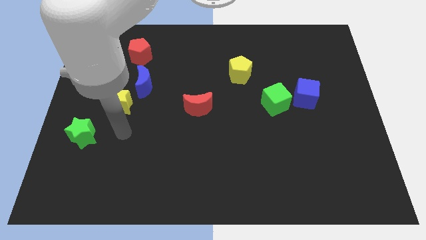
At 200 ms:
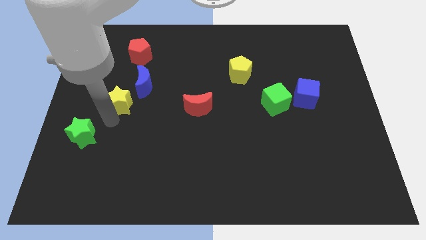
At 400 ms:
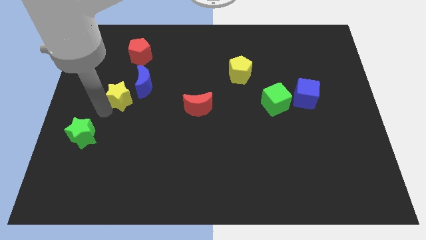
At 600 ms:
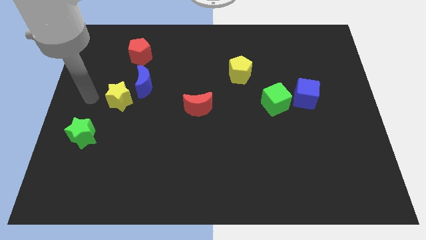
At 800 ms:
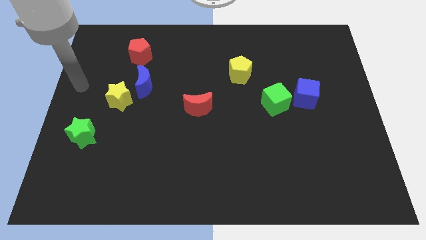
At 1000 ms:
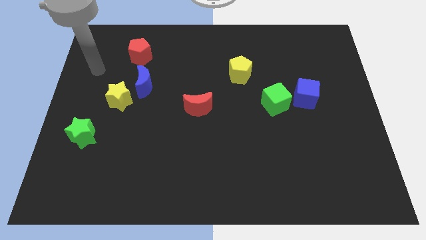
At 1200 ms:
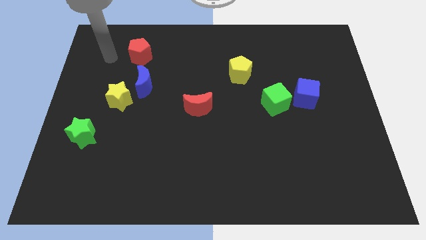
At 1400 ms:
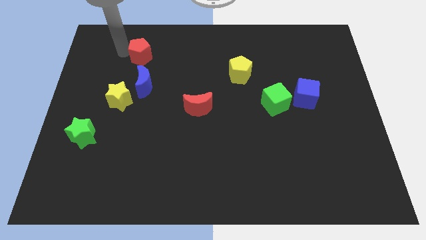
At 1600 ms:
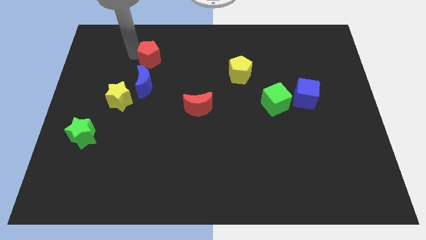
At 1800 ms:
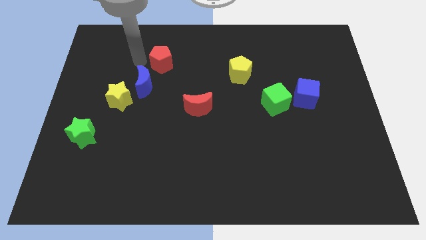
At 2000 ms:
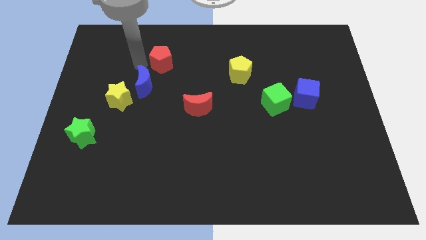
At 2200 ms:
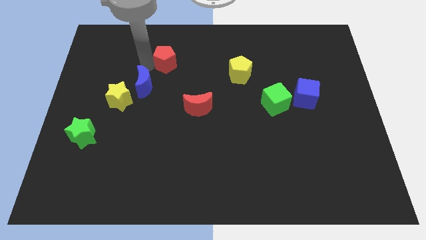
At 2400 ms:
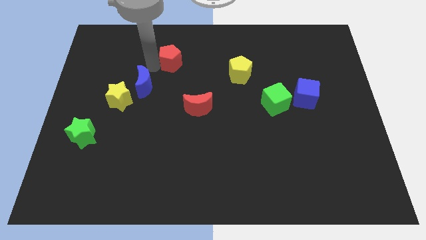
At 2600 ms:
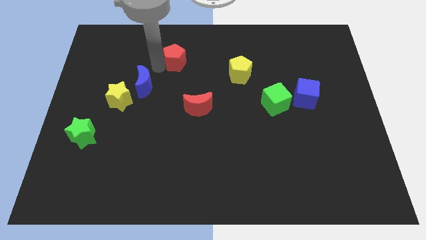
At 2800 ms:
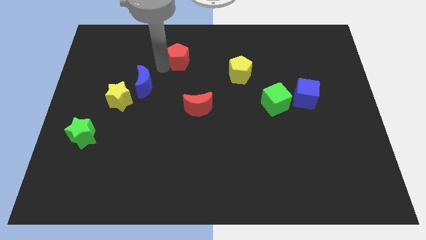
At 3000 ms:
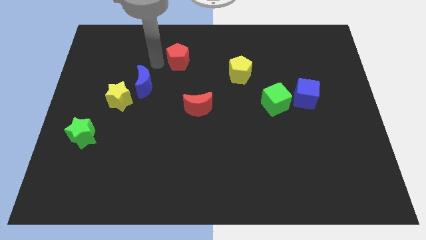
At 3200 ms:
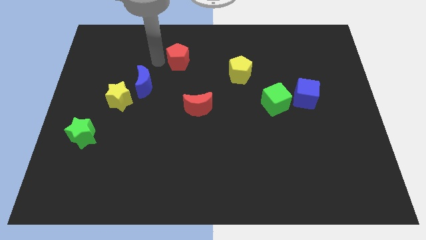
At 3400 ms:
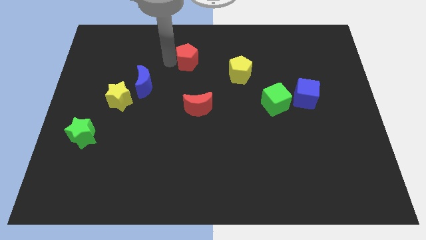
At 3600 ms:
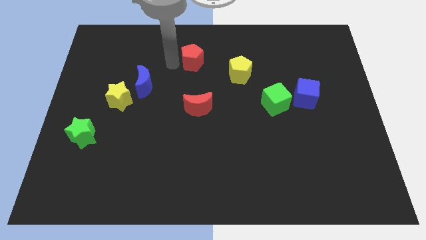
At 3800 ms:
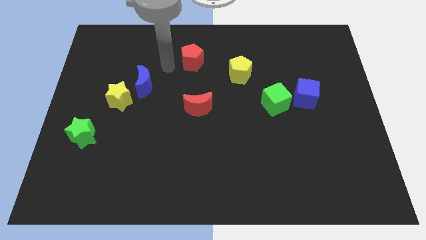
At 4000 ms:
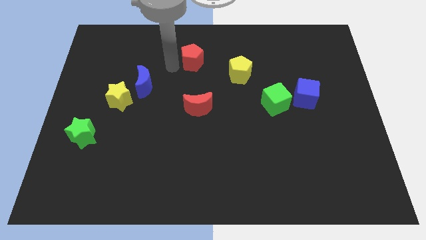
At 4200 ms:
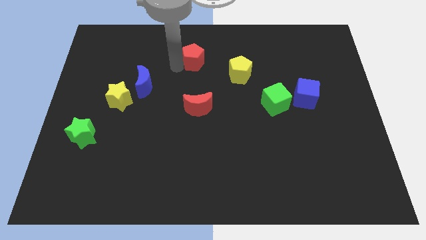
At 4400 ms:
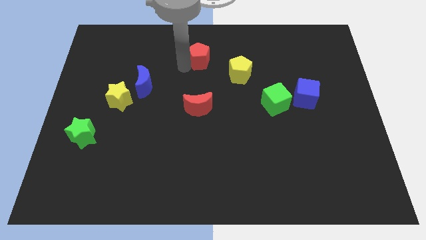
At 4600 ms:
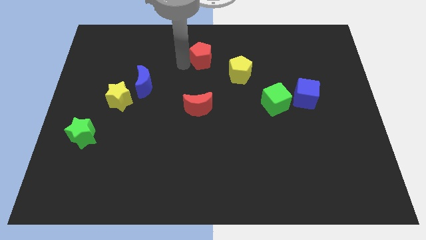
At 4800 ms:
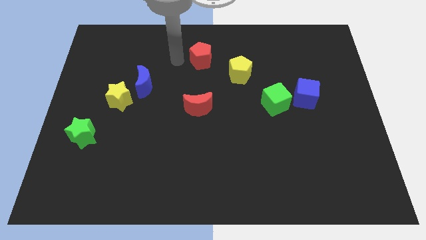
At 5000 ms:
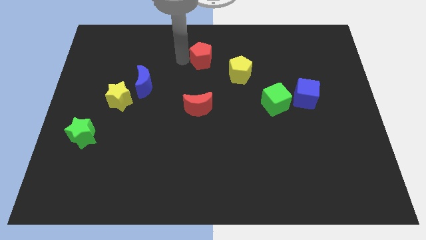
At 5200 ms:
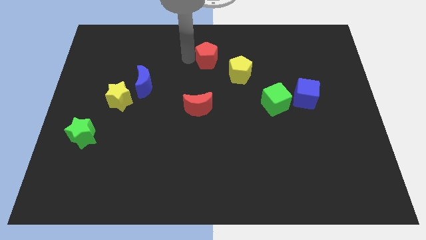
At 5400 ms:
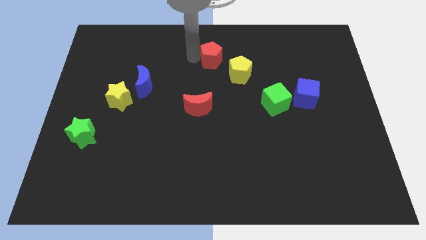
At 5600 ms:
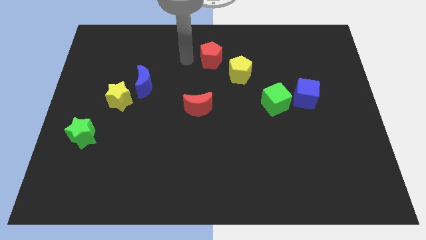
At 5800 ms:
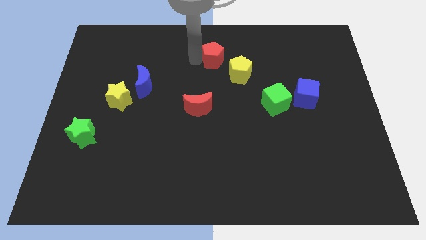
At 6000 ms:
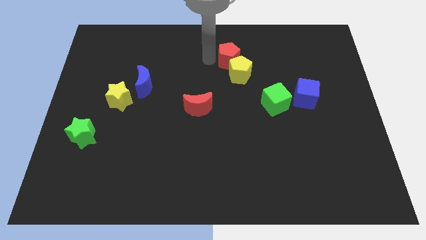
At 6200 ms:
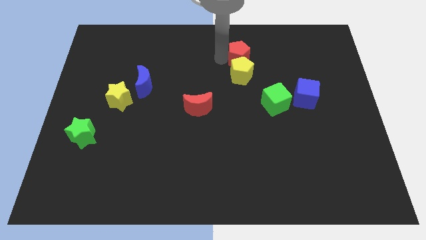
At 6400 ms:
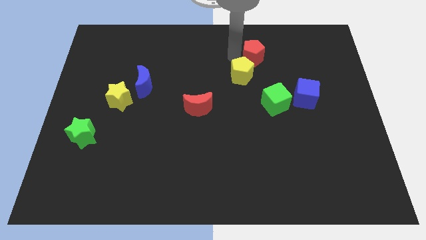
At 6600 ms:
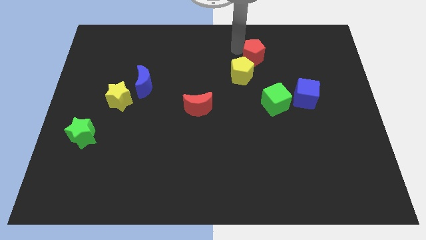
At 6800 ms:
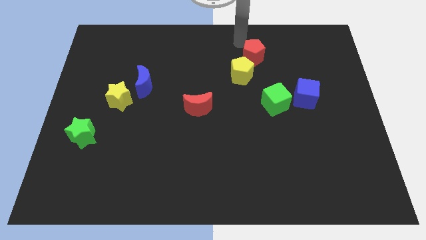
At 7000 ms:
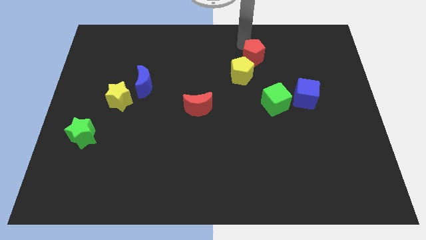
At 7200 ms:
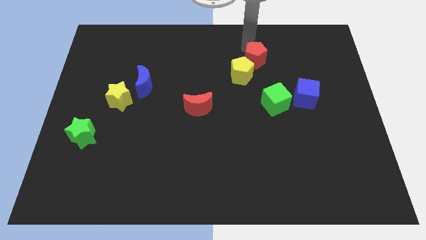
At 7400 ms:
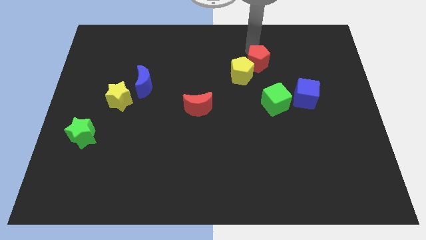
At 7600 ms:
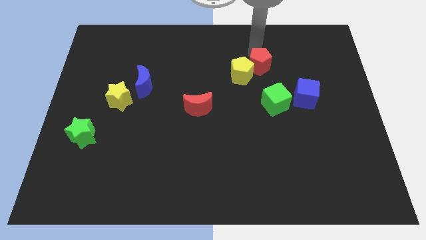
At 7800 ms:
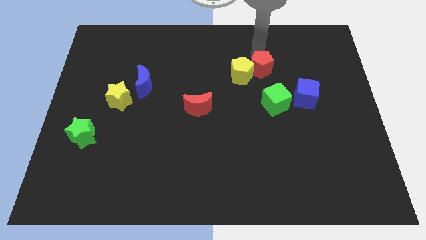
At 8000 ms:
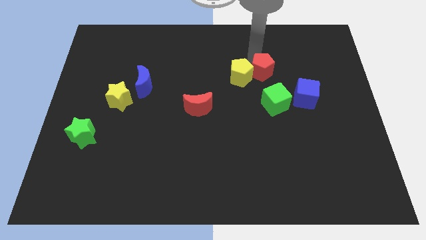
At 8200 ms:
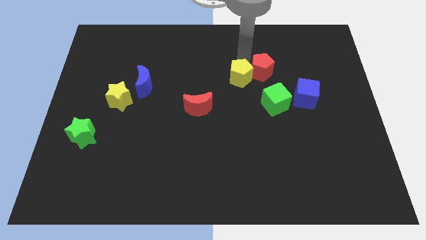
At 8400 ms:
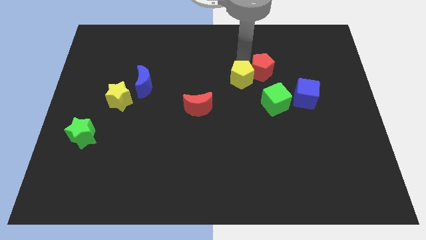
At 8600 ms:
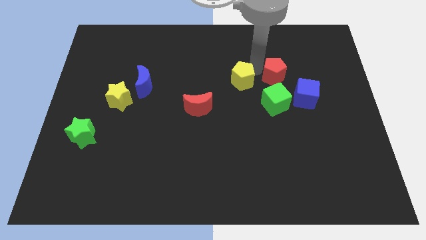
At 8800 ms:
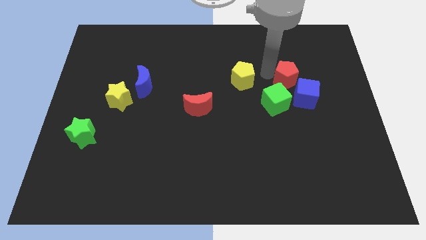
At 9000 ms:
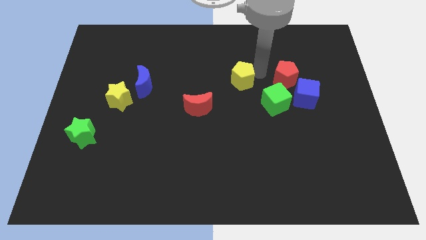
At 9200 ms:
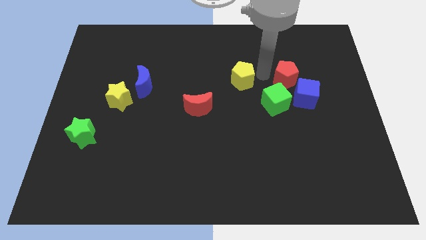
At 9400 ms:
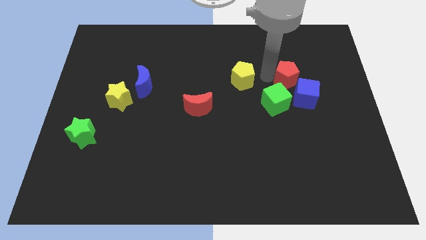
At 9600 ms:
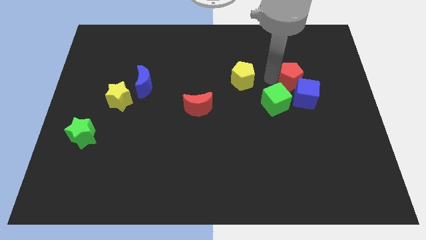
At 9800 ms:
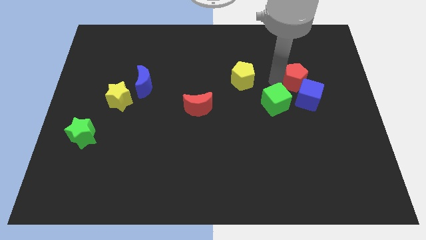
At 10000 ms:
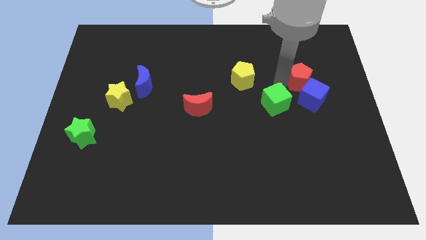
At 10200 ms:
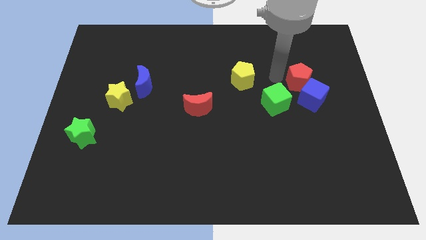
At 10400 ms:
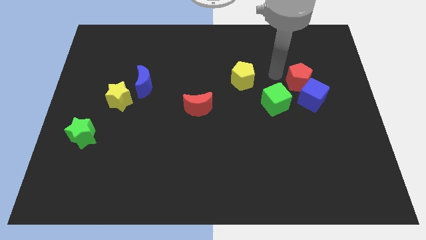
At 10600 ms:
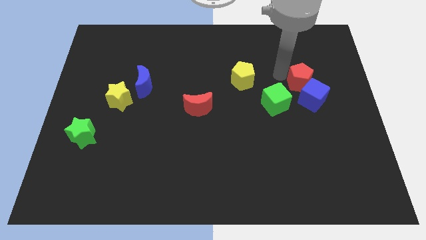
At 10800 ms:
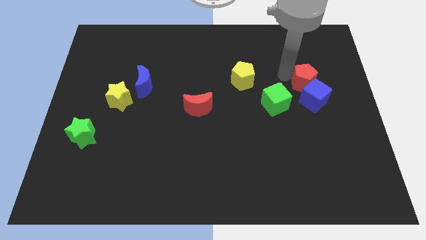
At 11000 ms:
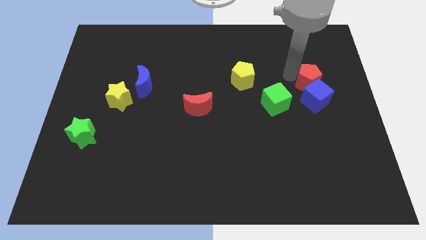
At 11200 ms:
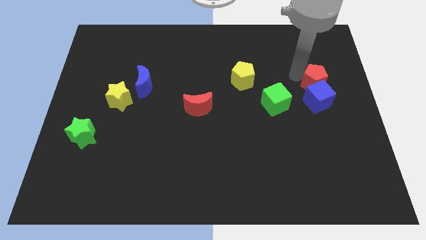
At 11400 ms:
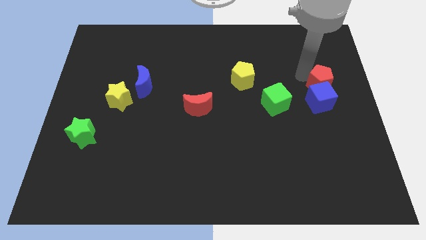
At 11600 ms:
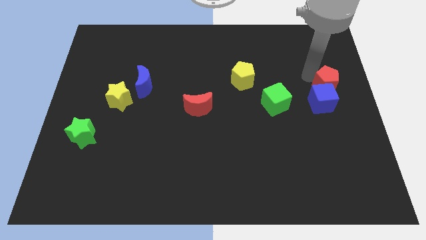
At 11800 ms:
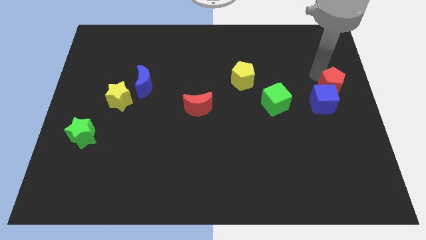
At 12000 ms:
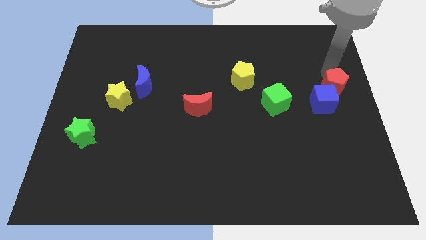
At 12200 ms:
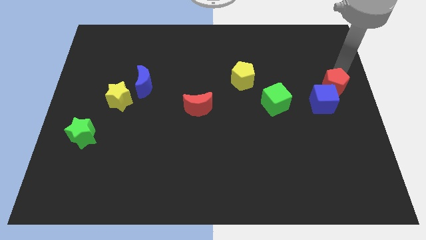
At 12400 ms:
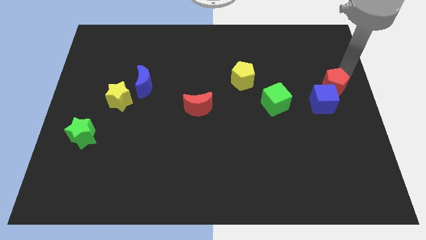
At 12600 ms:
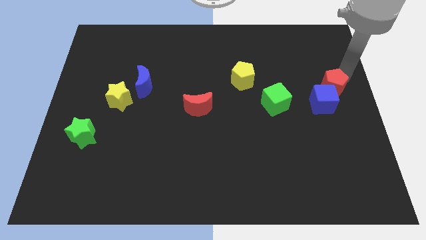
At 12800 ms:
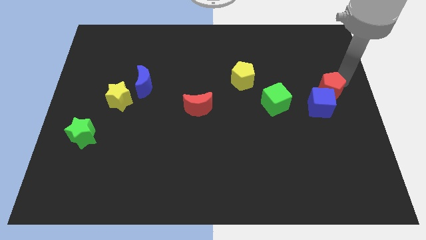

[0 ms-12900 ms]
put the red pentagon right of the green cube

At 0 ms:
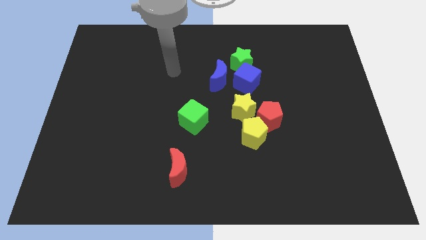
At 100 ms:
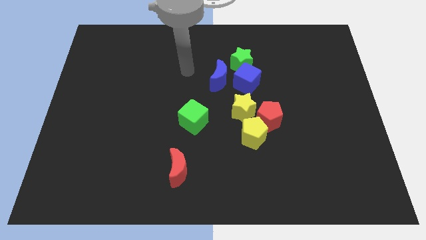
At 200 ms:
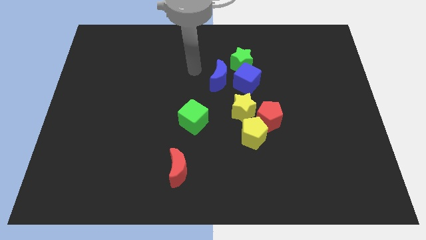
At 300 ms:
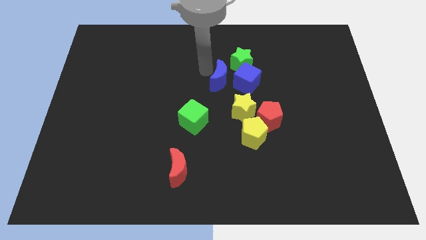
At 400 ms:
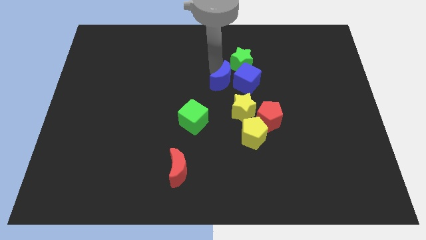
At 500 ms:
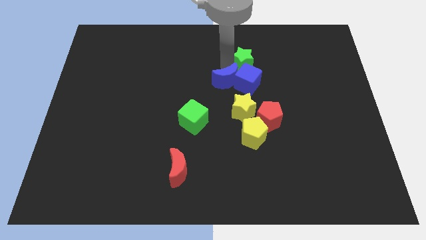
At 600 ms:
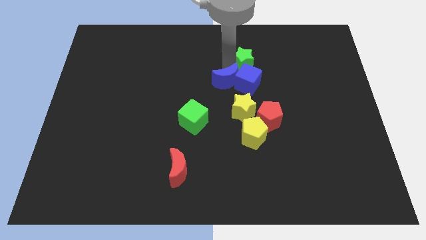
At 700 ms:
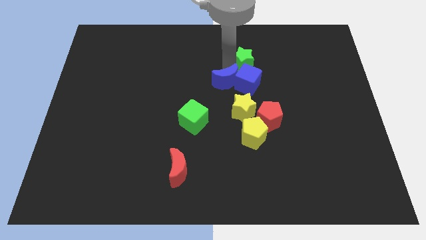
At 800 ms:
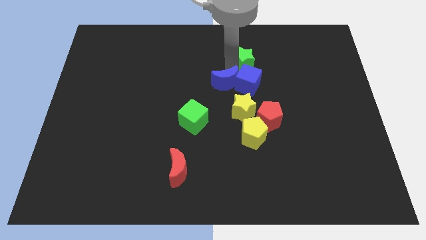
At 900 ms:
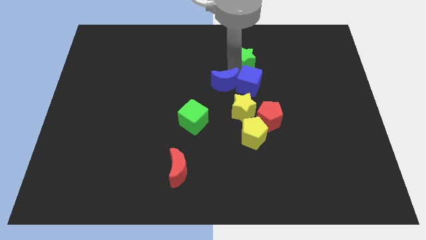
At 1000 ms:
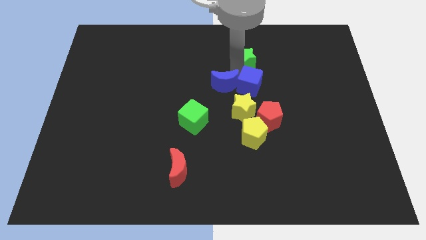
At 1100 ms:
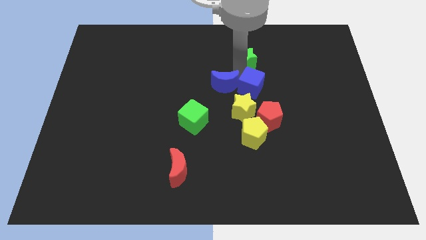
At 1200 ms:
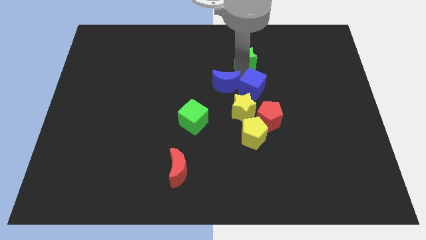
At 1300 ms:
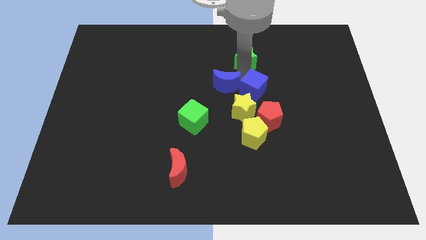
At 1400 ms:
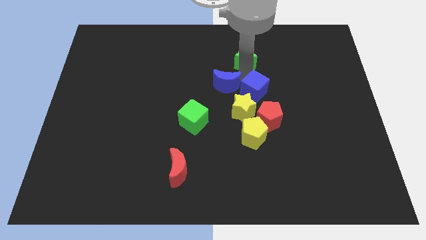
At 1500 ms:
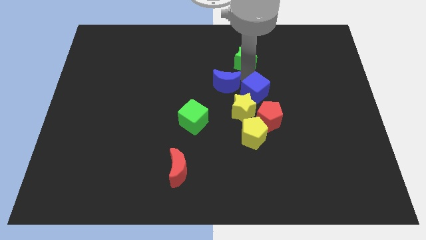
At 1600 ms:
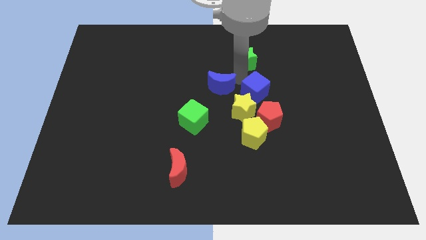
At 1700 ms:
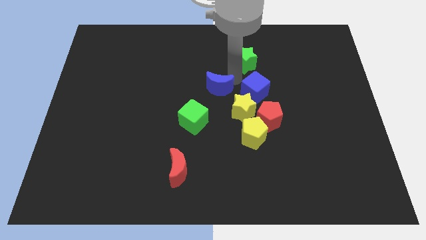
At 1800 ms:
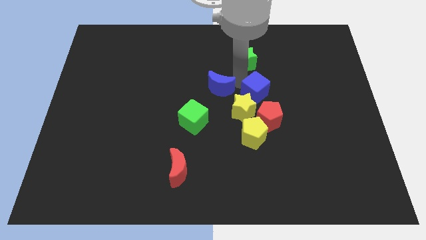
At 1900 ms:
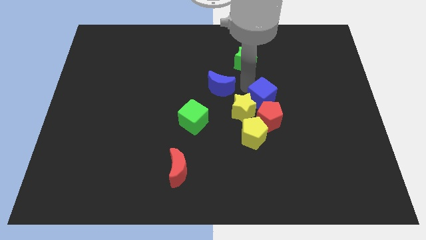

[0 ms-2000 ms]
move the blue cube to the right of the yellow star
